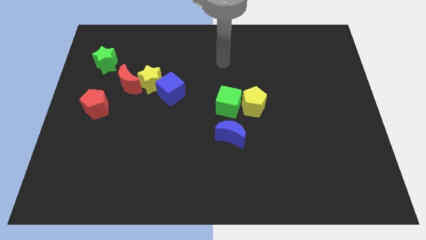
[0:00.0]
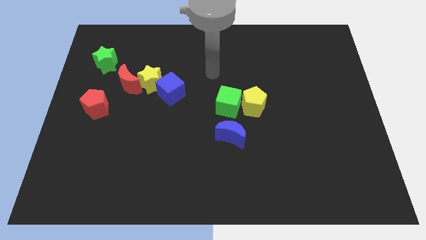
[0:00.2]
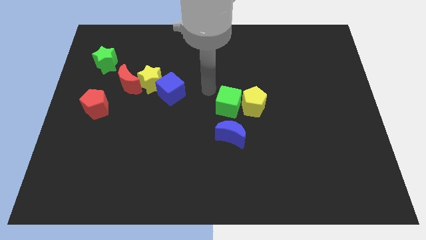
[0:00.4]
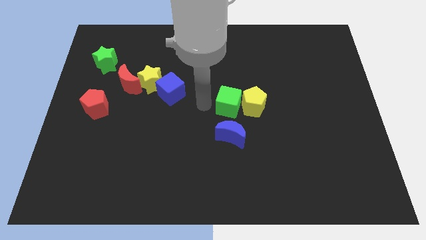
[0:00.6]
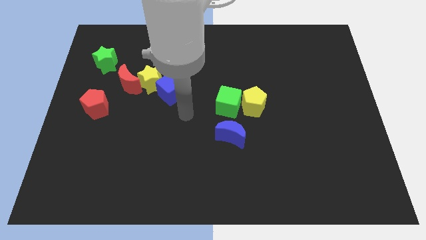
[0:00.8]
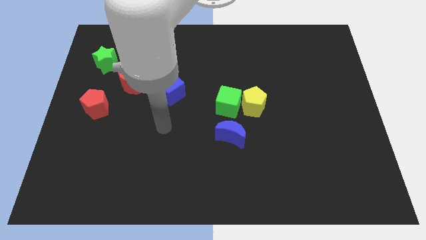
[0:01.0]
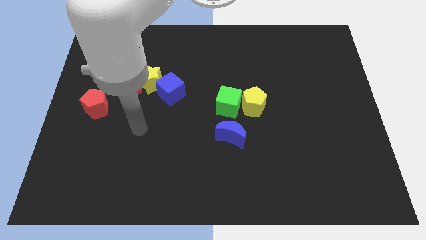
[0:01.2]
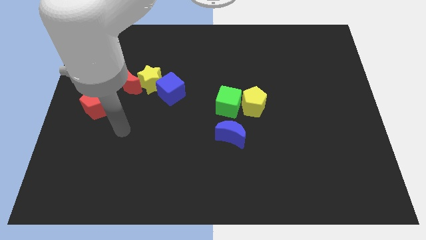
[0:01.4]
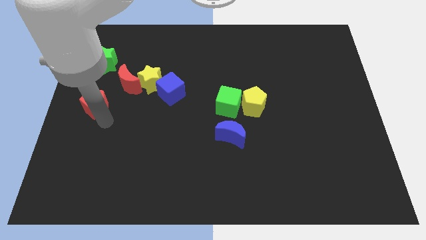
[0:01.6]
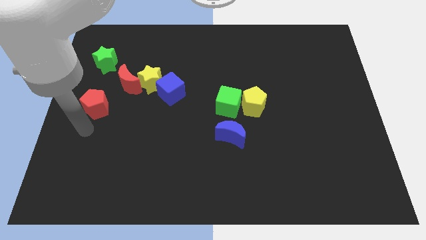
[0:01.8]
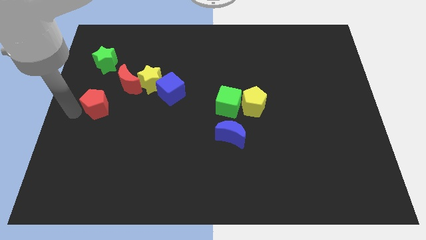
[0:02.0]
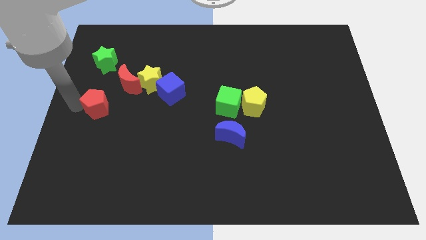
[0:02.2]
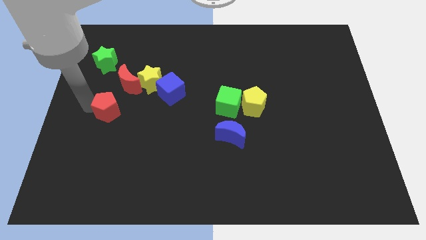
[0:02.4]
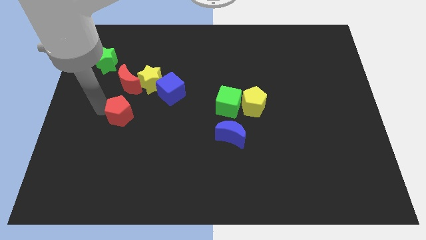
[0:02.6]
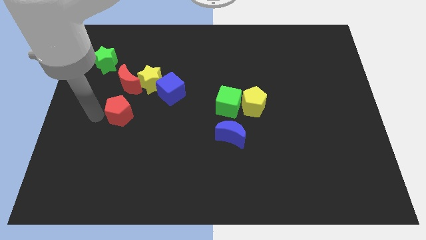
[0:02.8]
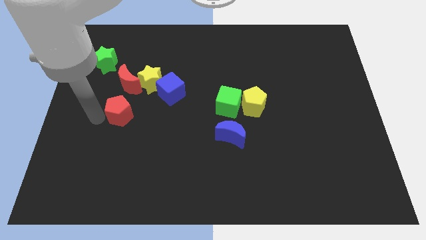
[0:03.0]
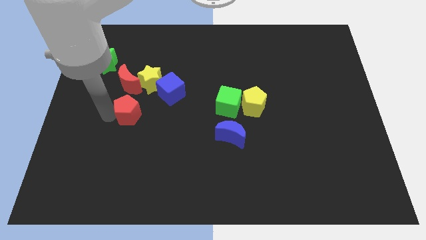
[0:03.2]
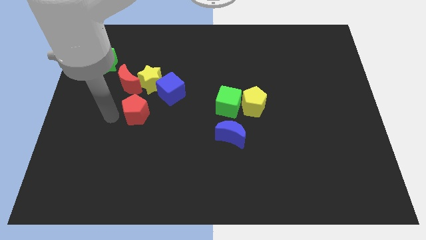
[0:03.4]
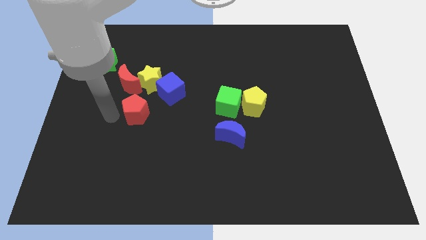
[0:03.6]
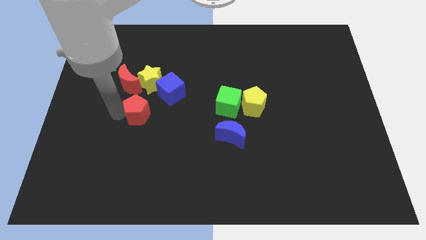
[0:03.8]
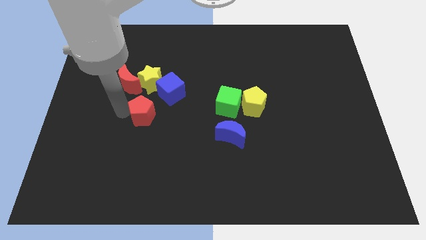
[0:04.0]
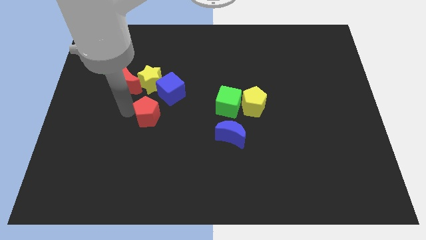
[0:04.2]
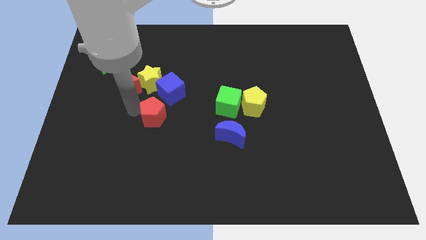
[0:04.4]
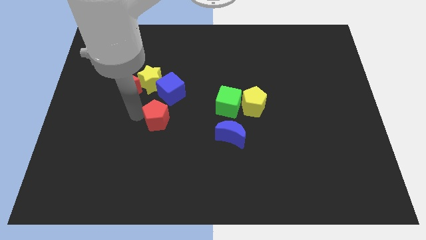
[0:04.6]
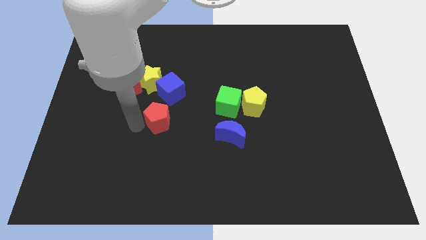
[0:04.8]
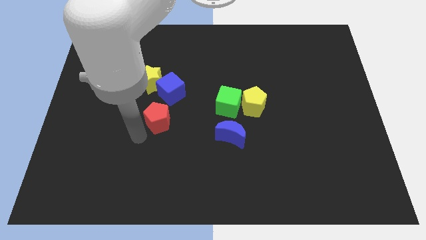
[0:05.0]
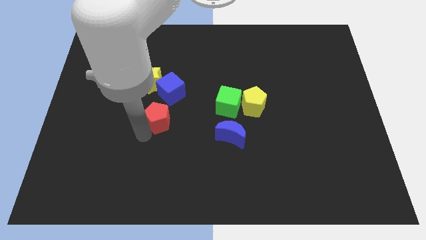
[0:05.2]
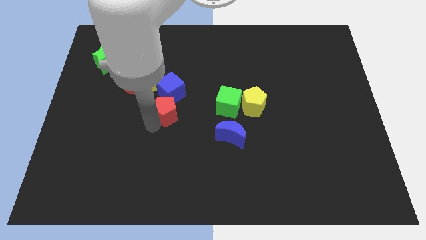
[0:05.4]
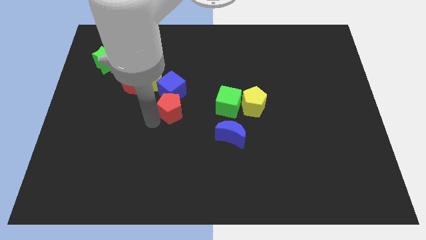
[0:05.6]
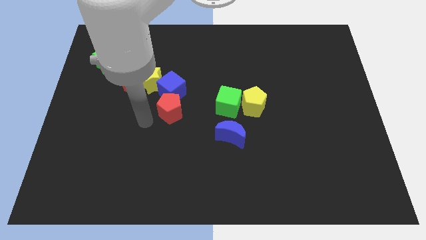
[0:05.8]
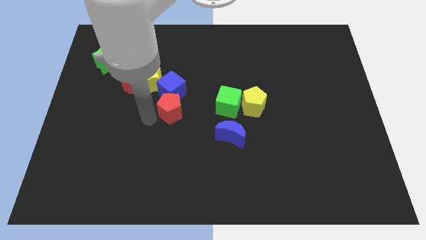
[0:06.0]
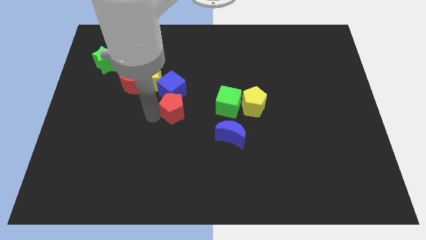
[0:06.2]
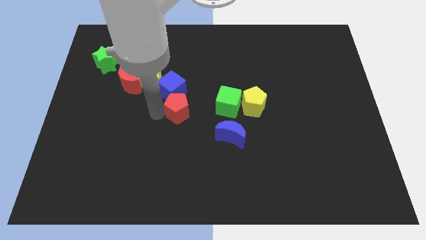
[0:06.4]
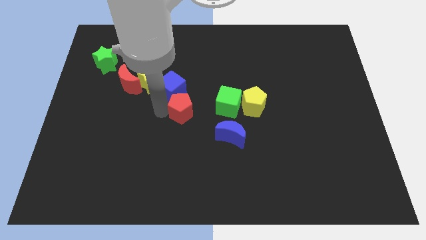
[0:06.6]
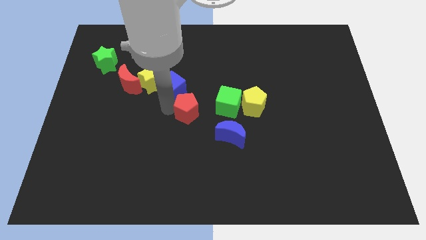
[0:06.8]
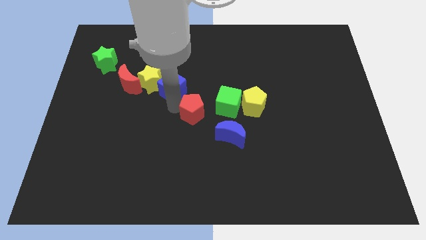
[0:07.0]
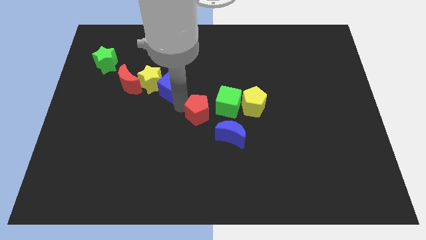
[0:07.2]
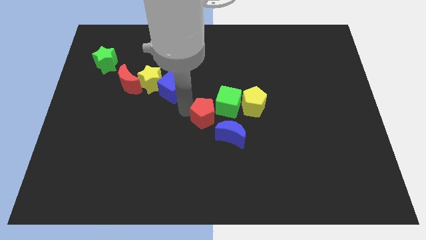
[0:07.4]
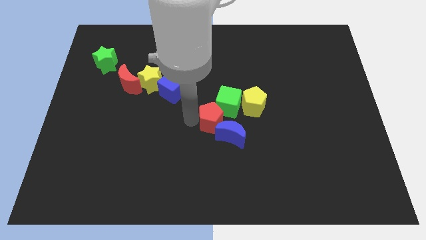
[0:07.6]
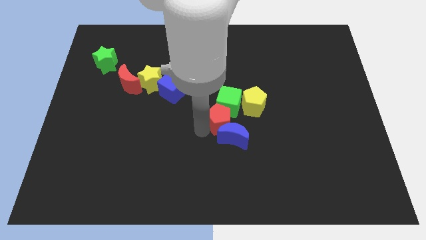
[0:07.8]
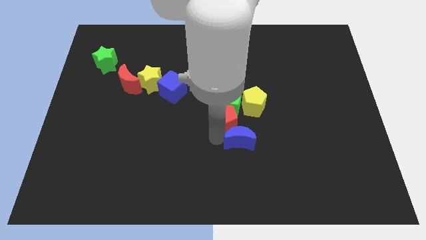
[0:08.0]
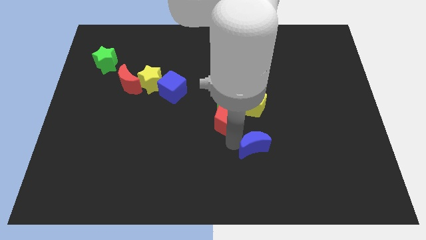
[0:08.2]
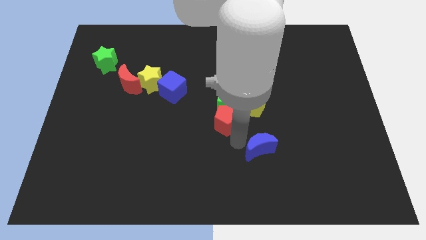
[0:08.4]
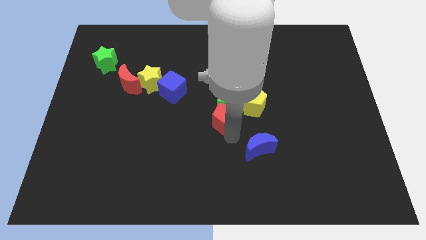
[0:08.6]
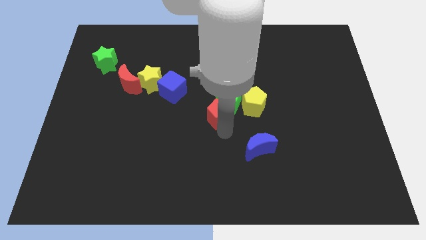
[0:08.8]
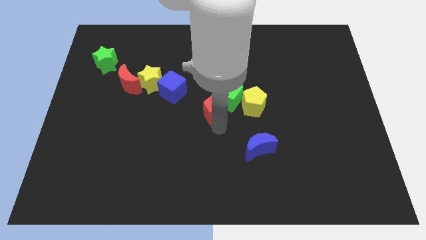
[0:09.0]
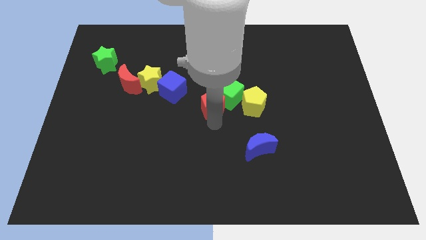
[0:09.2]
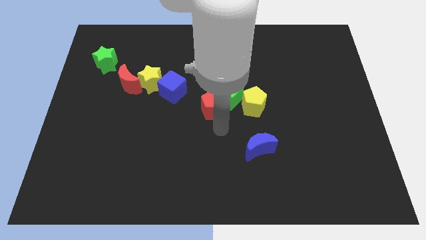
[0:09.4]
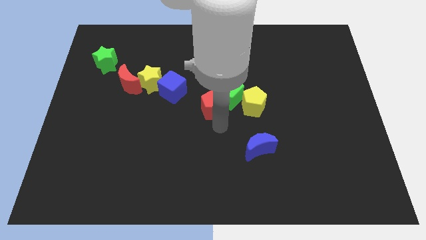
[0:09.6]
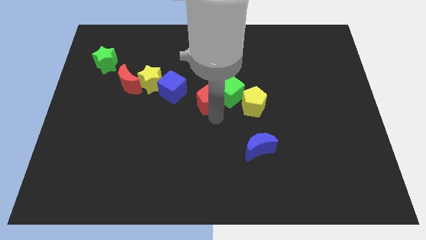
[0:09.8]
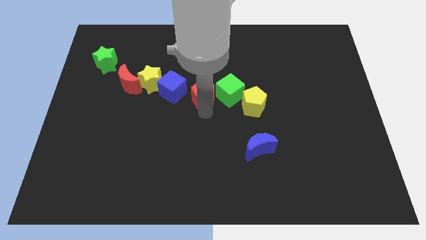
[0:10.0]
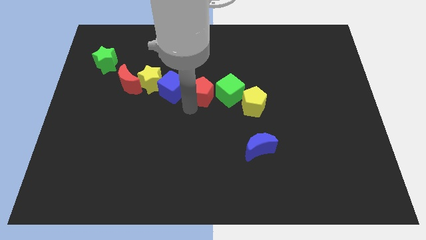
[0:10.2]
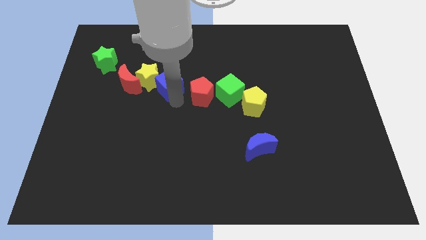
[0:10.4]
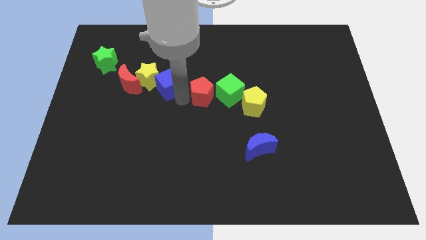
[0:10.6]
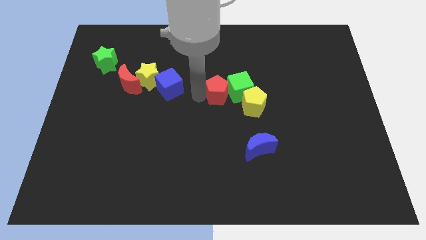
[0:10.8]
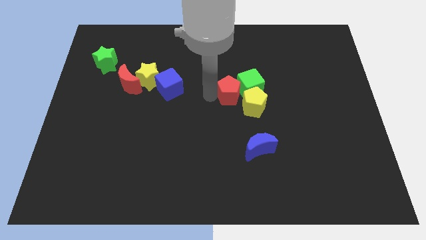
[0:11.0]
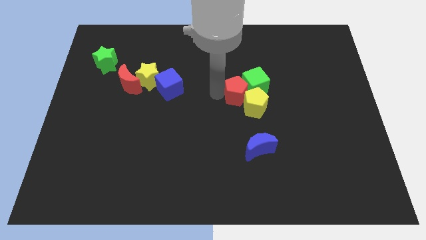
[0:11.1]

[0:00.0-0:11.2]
push the red pentagon next to the yellow pentagon

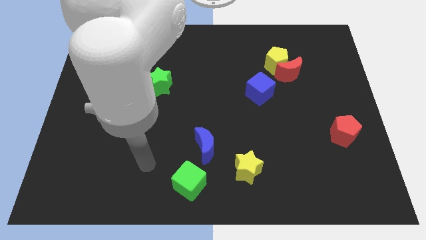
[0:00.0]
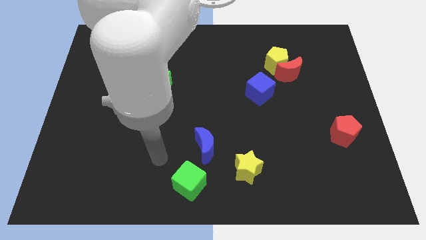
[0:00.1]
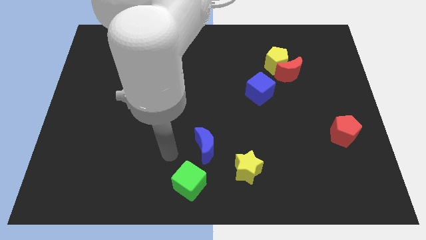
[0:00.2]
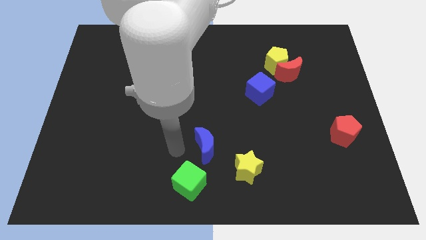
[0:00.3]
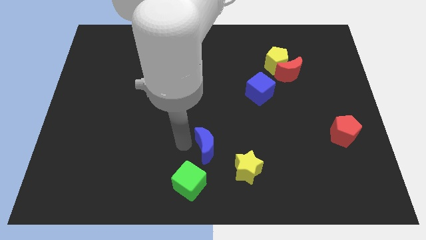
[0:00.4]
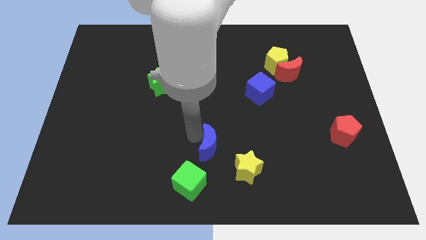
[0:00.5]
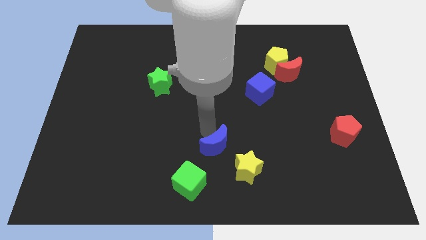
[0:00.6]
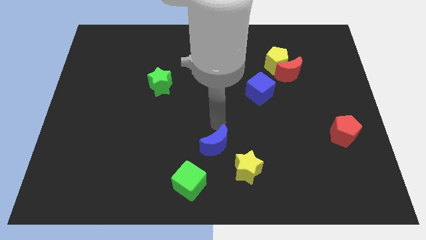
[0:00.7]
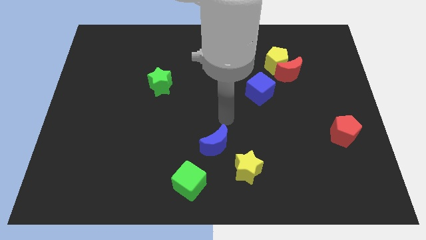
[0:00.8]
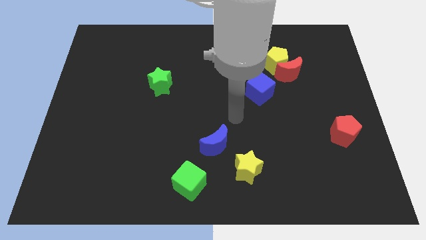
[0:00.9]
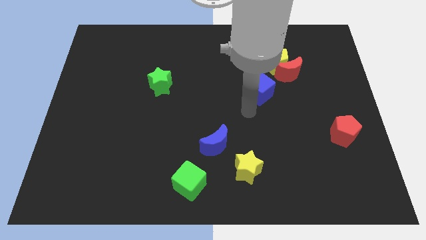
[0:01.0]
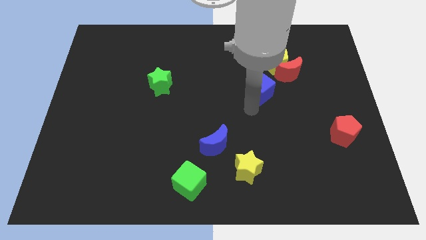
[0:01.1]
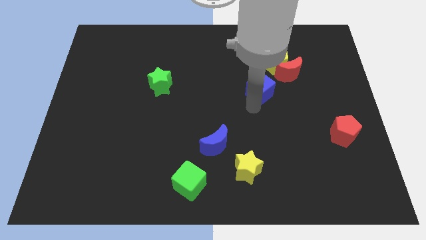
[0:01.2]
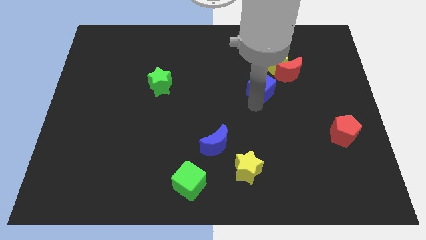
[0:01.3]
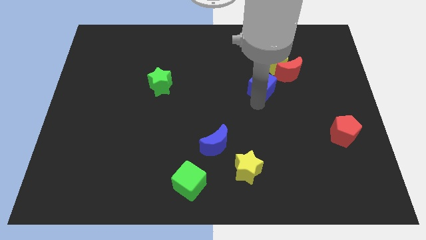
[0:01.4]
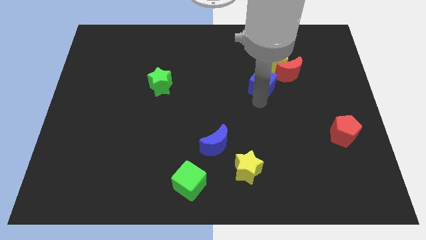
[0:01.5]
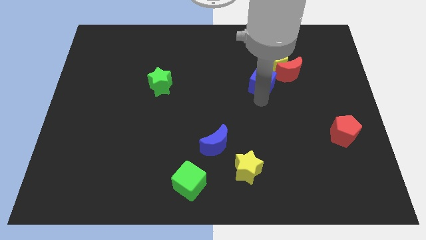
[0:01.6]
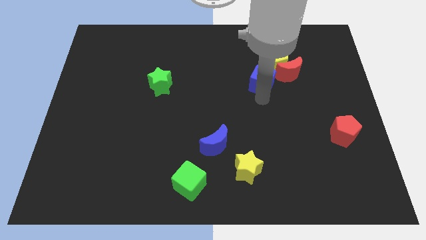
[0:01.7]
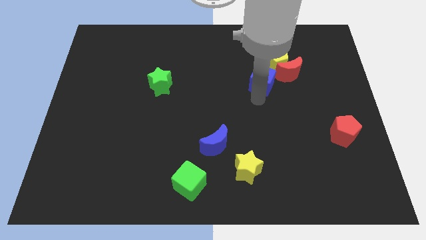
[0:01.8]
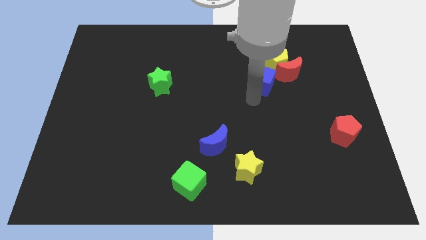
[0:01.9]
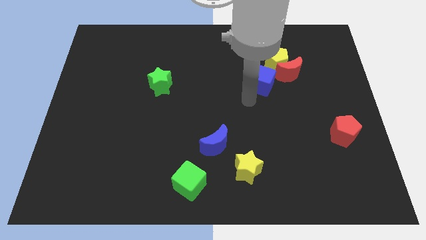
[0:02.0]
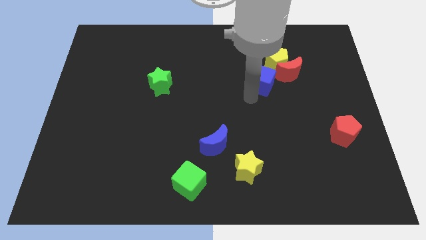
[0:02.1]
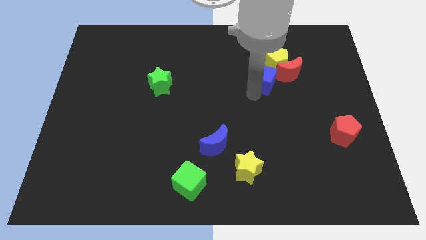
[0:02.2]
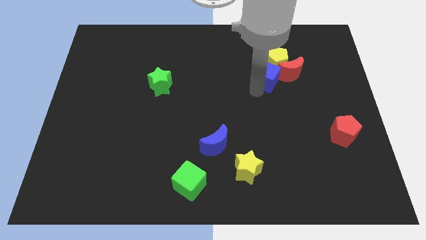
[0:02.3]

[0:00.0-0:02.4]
move the blue cube towards the yellow pentagon

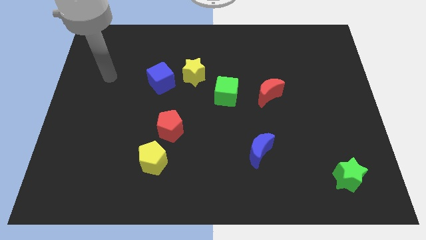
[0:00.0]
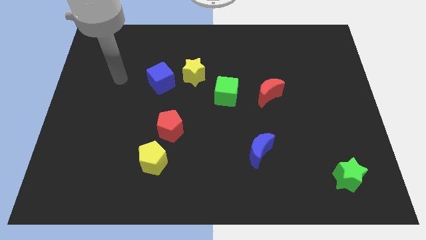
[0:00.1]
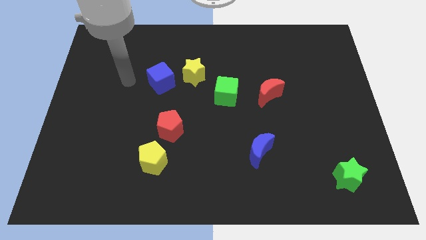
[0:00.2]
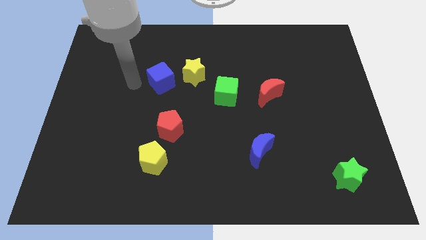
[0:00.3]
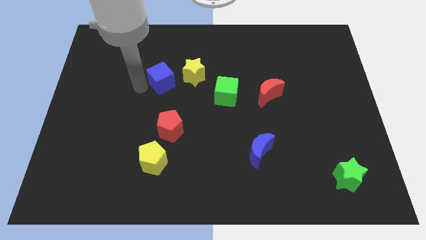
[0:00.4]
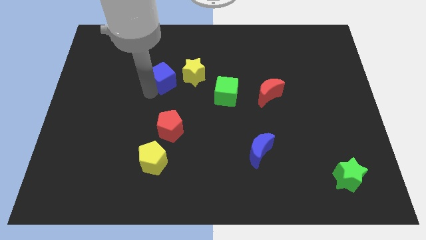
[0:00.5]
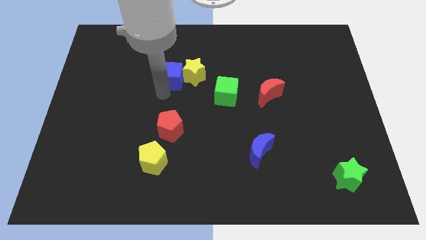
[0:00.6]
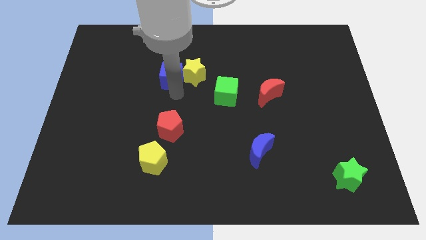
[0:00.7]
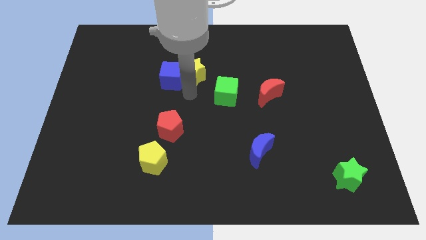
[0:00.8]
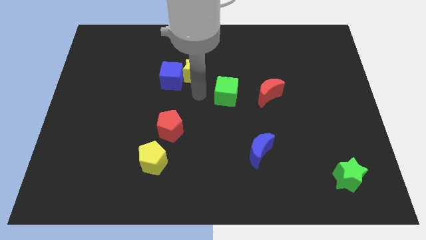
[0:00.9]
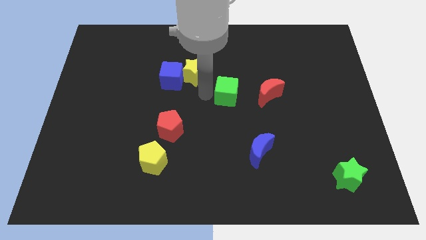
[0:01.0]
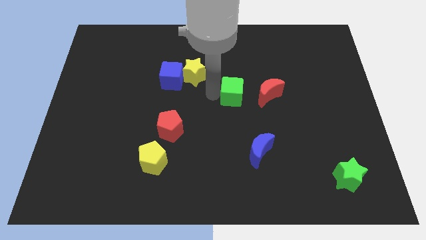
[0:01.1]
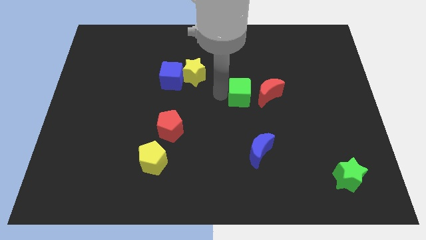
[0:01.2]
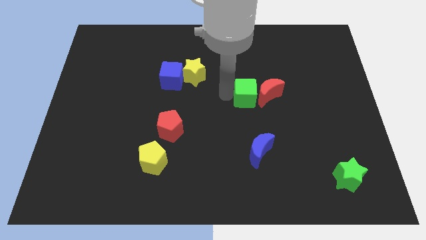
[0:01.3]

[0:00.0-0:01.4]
put the green cube next to the red moon
